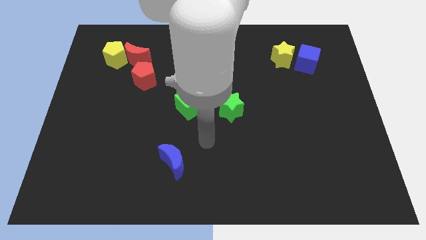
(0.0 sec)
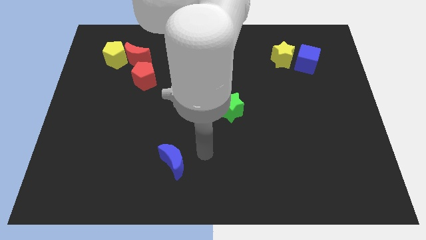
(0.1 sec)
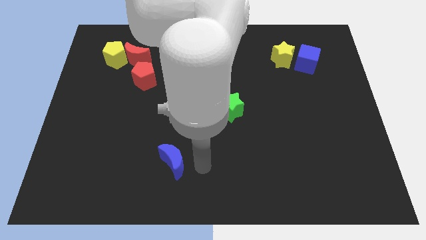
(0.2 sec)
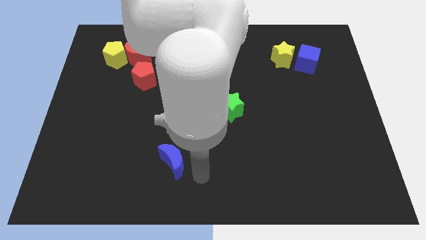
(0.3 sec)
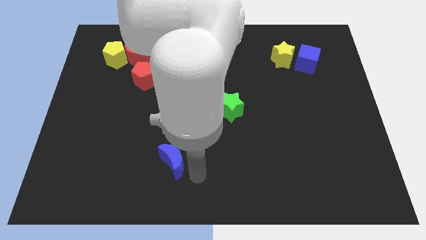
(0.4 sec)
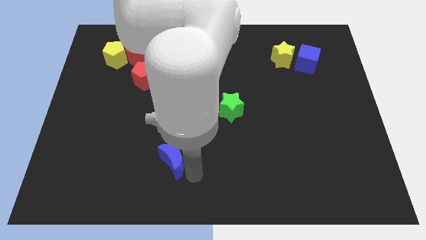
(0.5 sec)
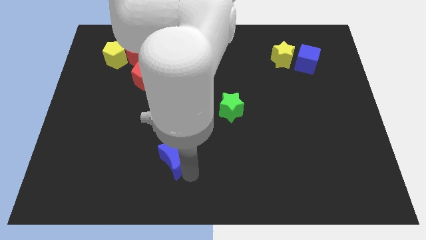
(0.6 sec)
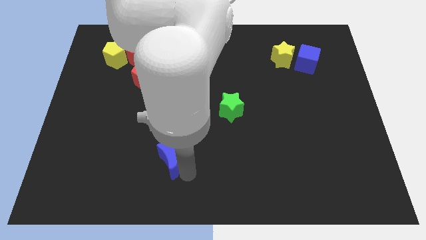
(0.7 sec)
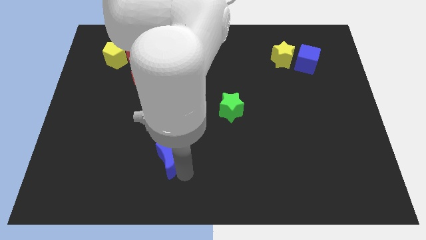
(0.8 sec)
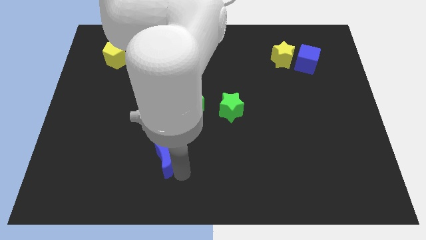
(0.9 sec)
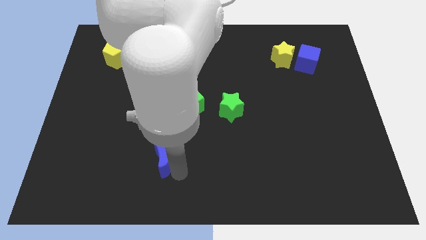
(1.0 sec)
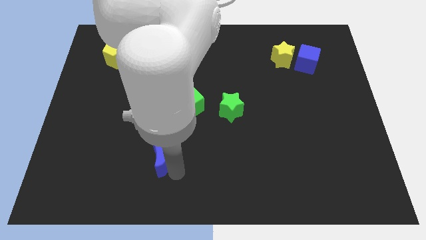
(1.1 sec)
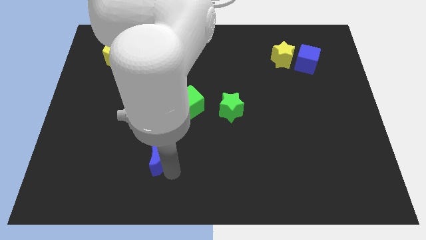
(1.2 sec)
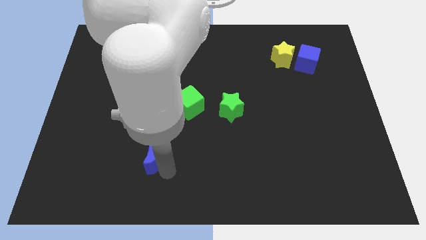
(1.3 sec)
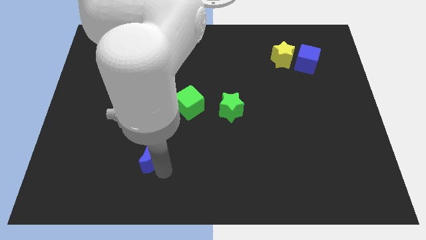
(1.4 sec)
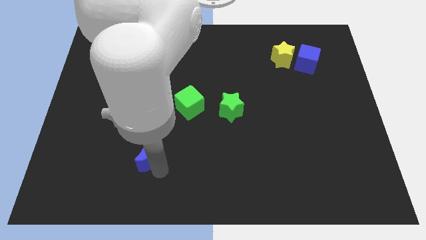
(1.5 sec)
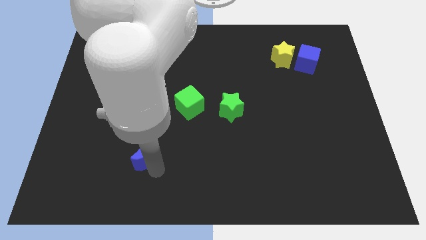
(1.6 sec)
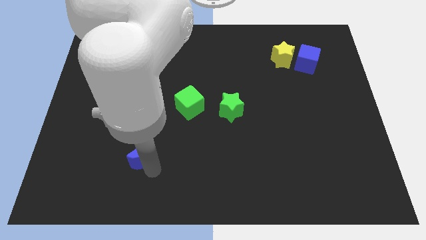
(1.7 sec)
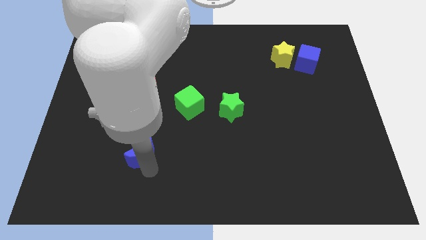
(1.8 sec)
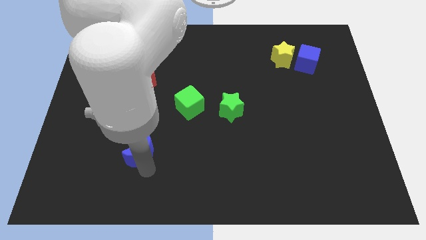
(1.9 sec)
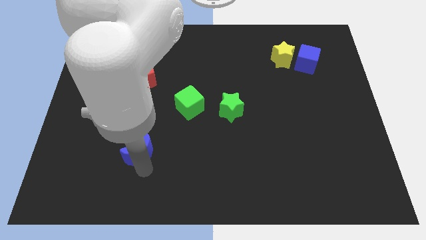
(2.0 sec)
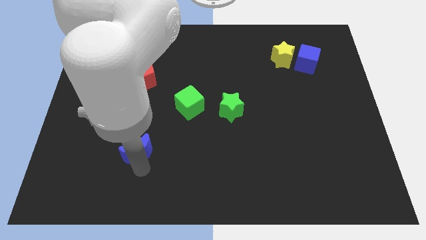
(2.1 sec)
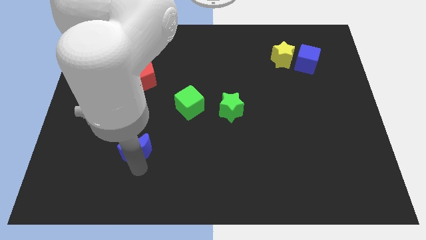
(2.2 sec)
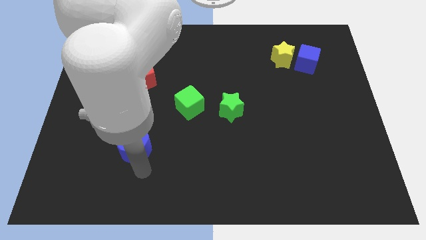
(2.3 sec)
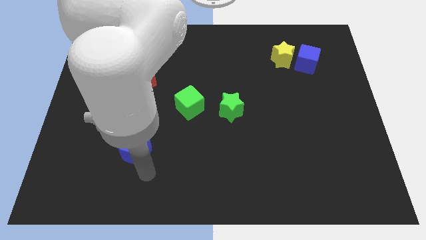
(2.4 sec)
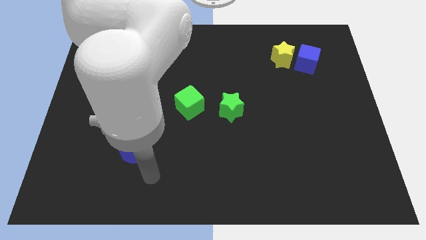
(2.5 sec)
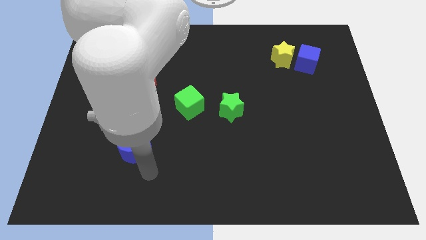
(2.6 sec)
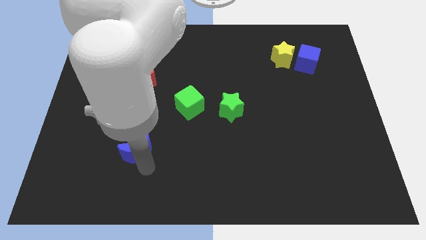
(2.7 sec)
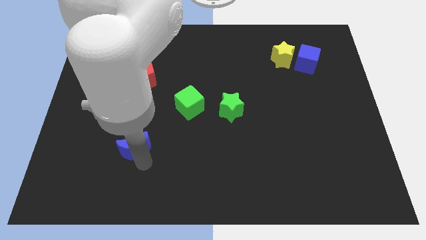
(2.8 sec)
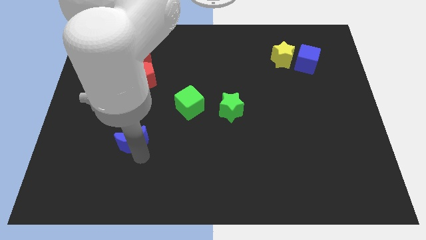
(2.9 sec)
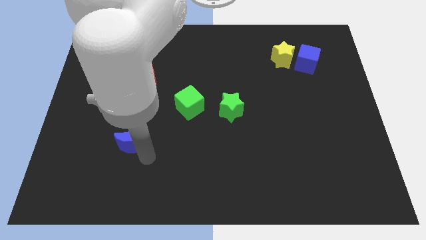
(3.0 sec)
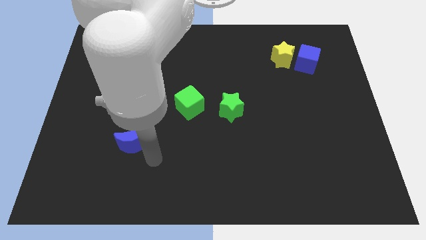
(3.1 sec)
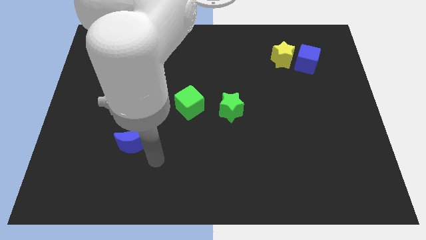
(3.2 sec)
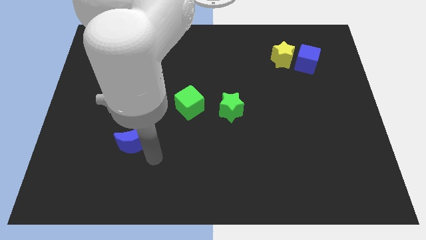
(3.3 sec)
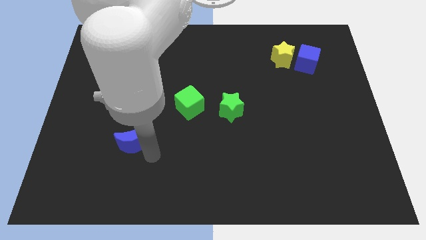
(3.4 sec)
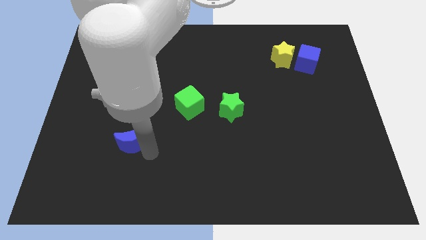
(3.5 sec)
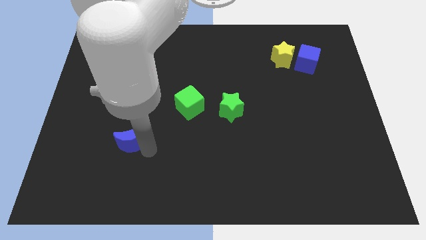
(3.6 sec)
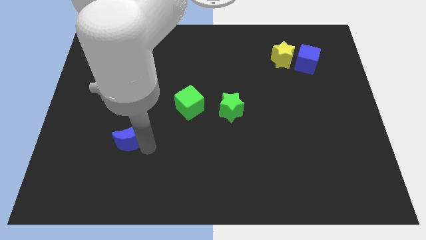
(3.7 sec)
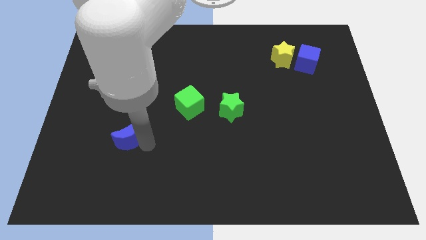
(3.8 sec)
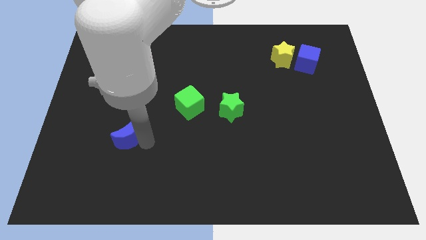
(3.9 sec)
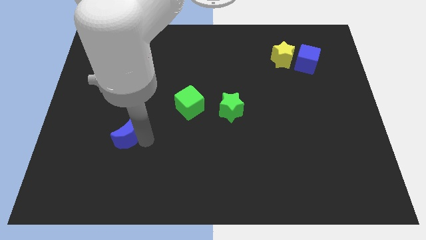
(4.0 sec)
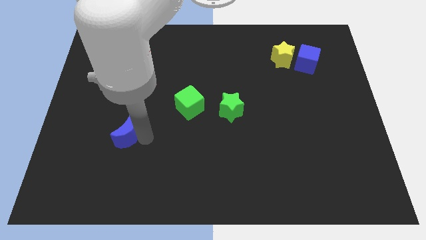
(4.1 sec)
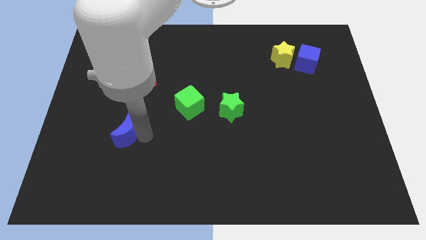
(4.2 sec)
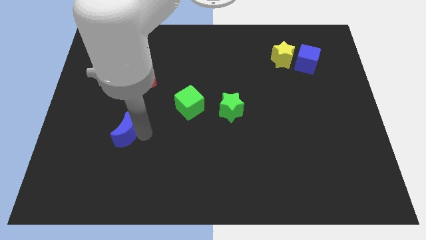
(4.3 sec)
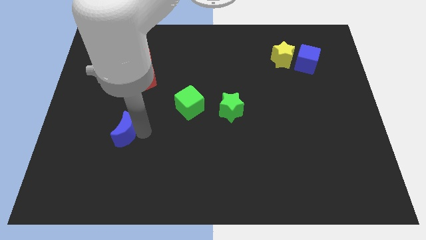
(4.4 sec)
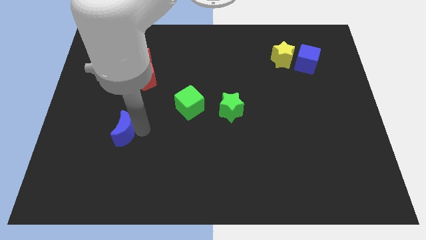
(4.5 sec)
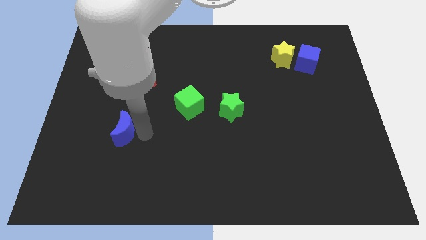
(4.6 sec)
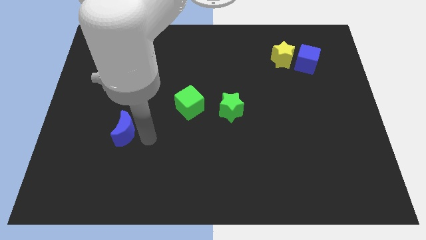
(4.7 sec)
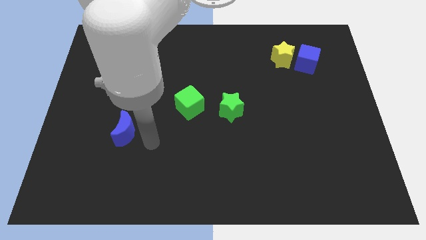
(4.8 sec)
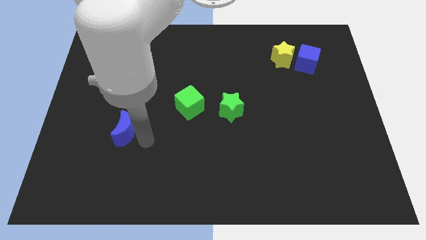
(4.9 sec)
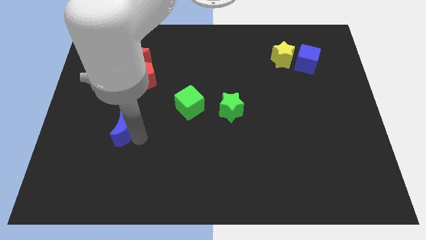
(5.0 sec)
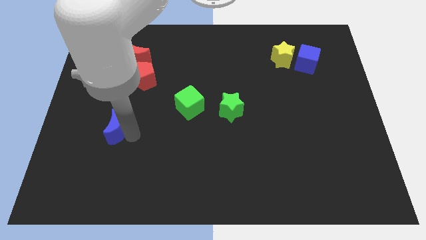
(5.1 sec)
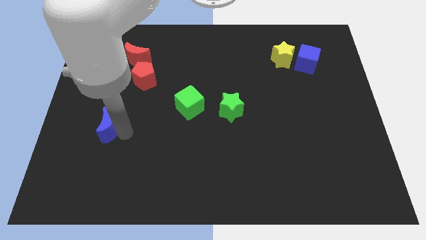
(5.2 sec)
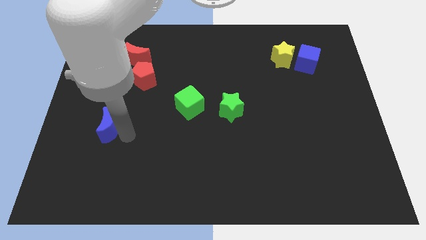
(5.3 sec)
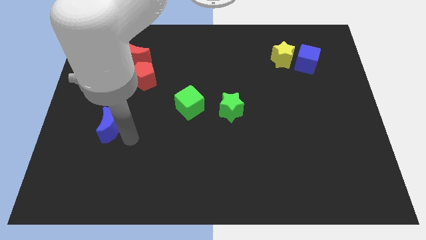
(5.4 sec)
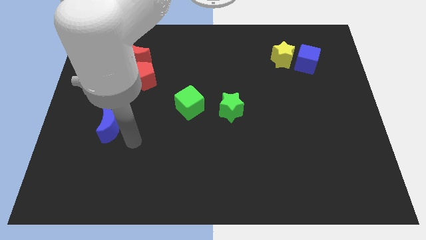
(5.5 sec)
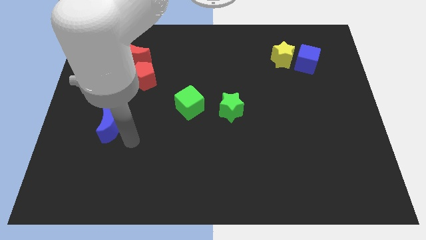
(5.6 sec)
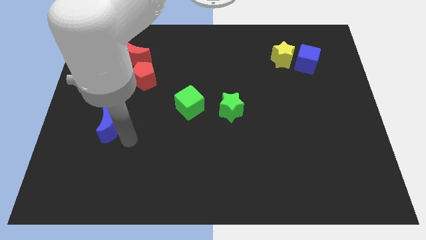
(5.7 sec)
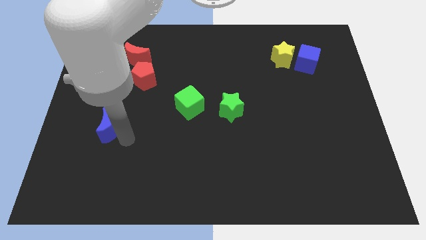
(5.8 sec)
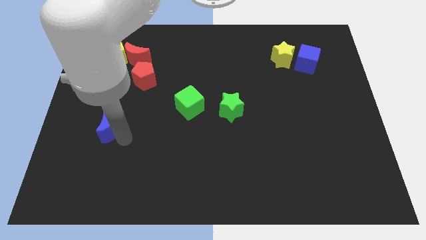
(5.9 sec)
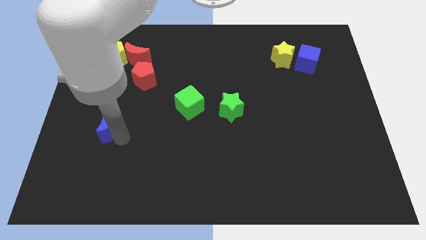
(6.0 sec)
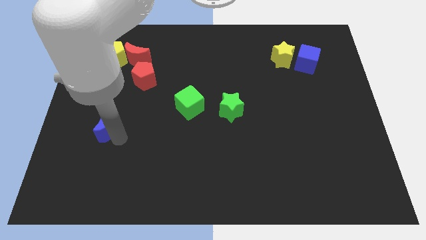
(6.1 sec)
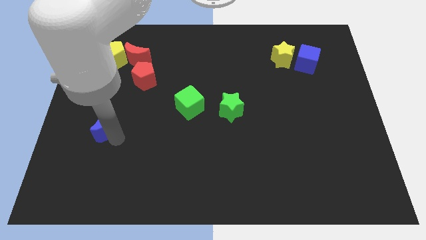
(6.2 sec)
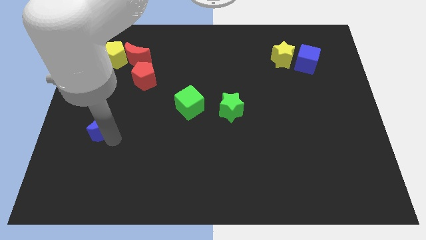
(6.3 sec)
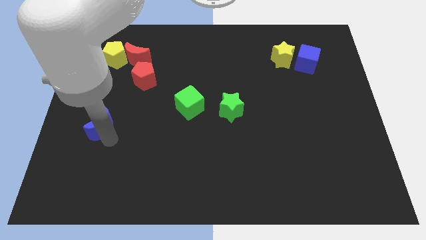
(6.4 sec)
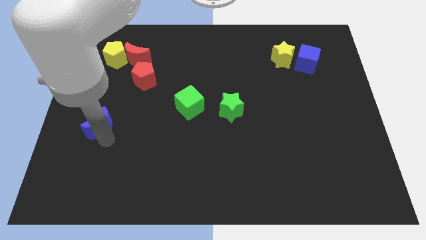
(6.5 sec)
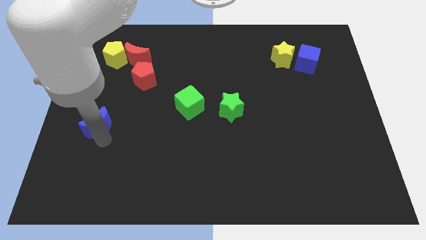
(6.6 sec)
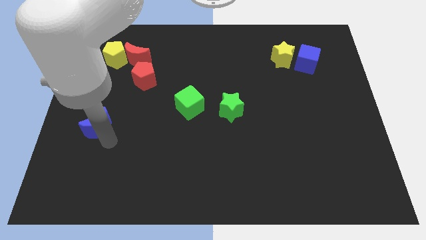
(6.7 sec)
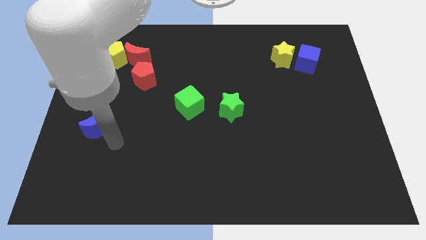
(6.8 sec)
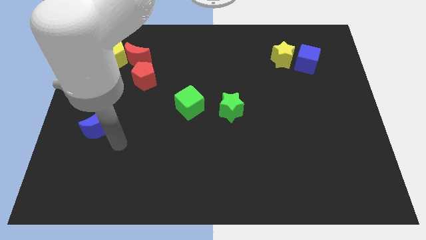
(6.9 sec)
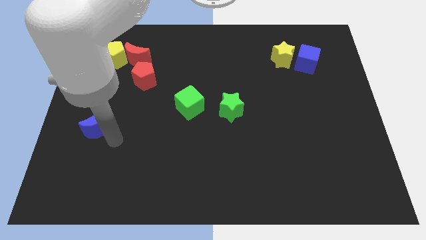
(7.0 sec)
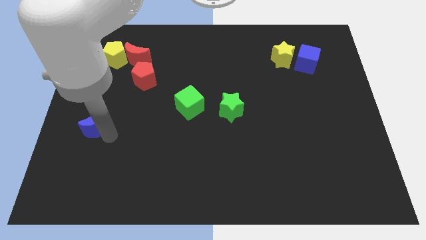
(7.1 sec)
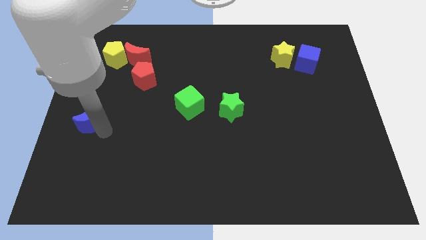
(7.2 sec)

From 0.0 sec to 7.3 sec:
put the blue moon to the left side of the board

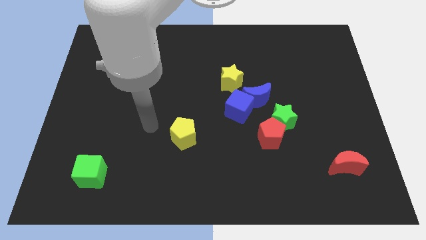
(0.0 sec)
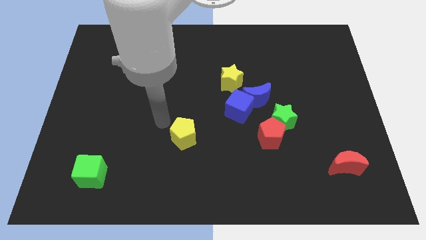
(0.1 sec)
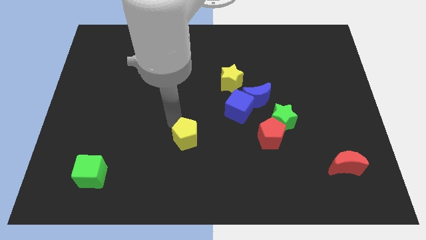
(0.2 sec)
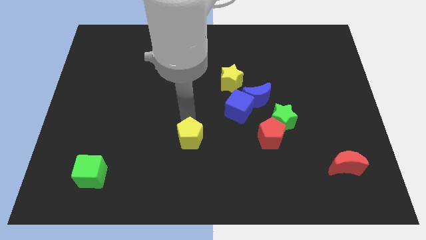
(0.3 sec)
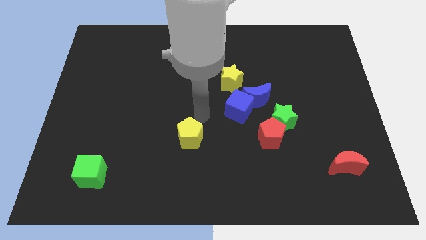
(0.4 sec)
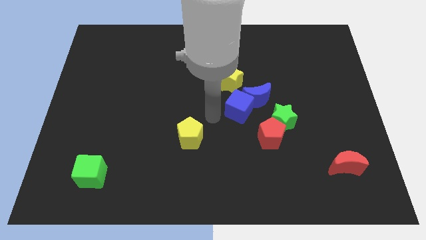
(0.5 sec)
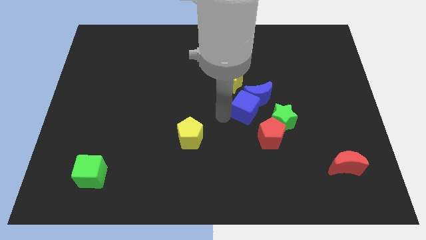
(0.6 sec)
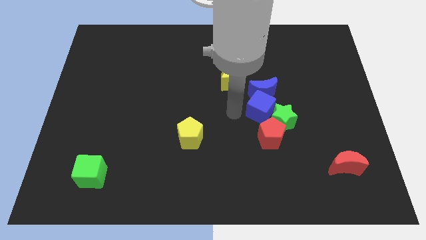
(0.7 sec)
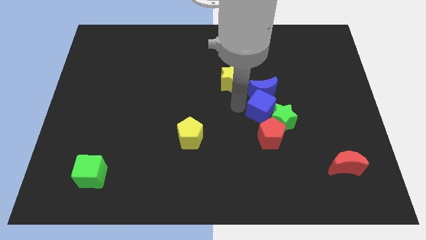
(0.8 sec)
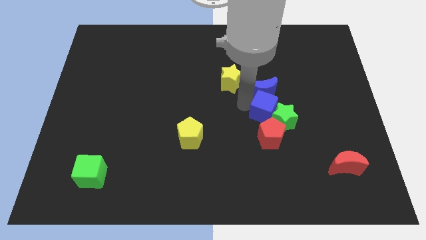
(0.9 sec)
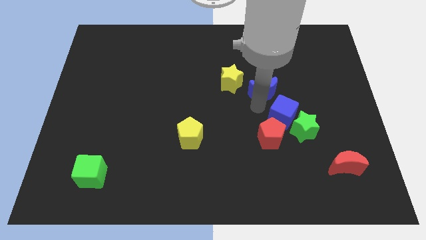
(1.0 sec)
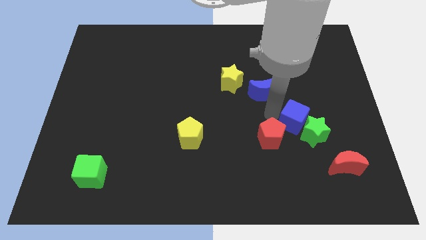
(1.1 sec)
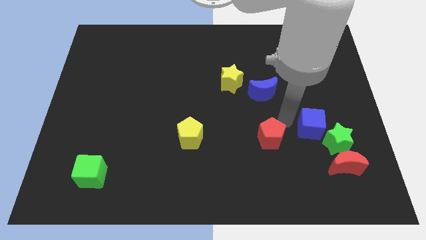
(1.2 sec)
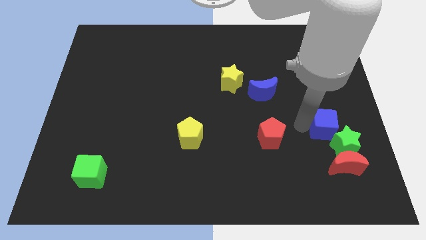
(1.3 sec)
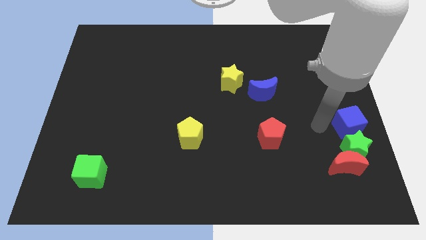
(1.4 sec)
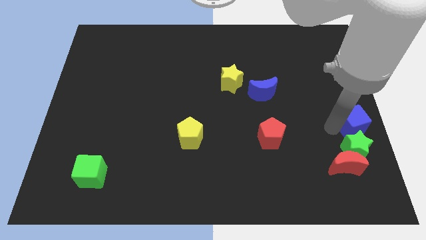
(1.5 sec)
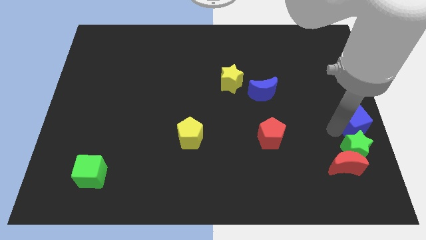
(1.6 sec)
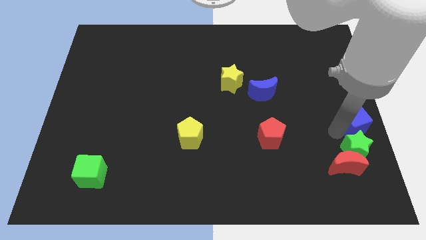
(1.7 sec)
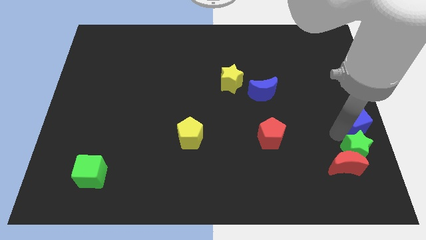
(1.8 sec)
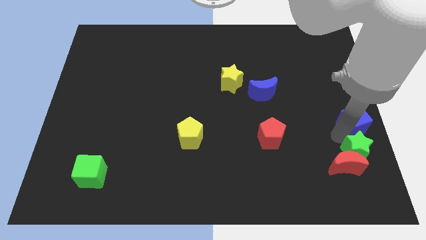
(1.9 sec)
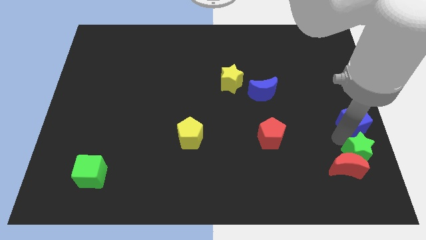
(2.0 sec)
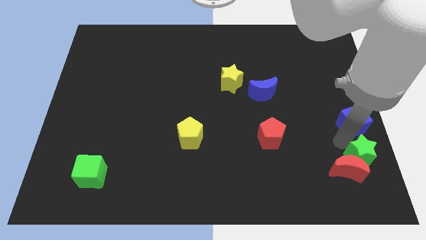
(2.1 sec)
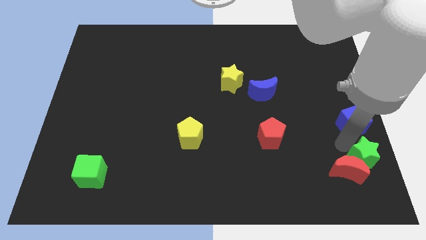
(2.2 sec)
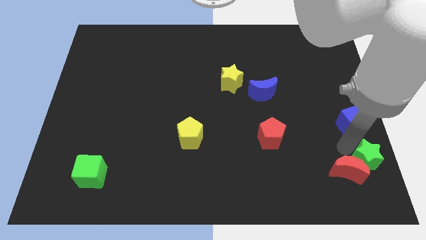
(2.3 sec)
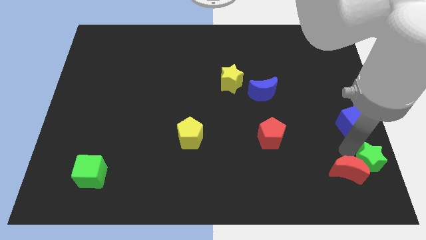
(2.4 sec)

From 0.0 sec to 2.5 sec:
put the green star to the bottom right
